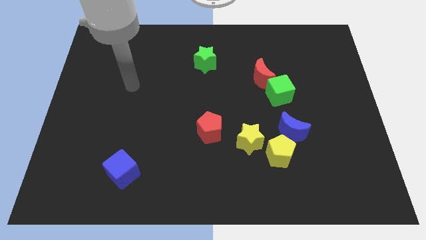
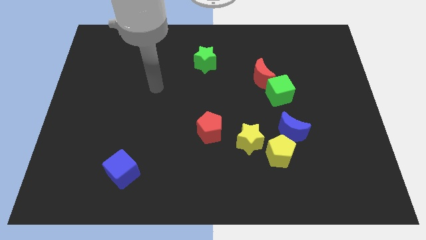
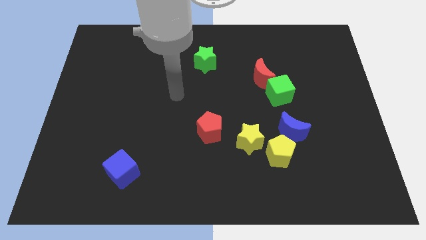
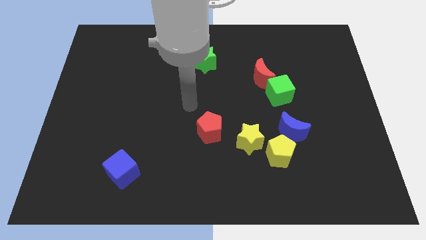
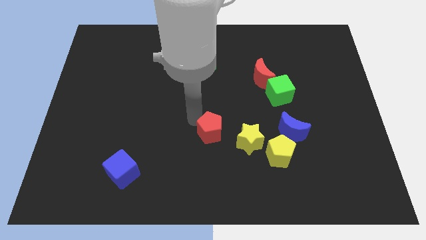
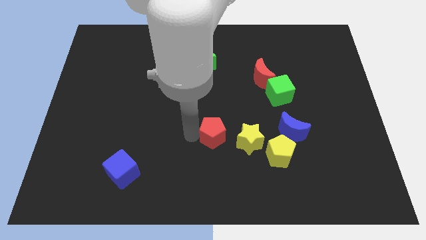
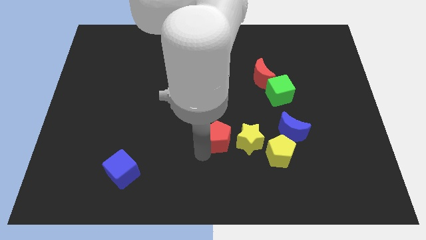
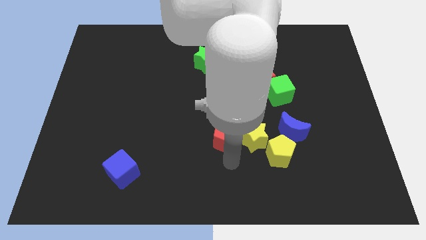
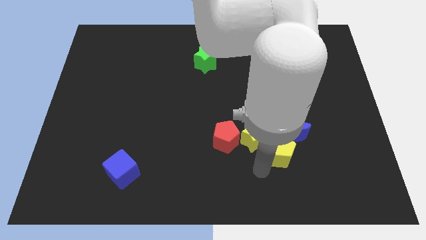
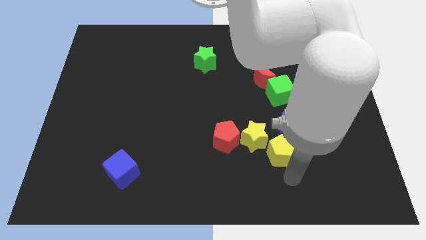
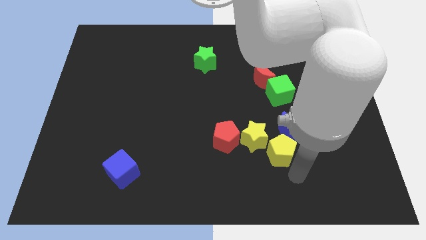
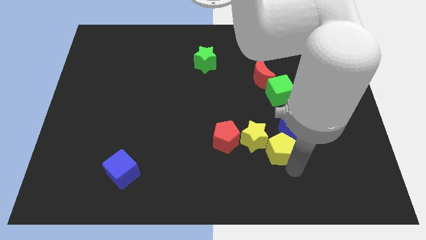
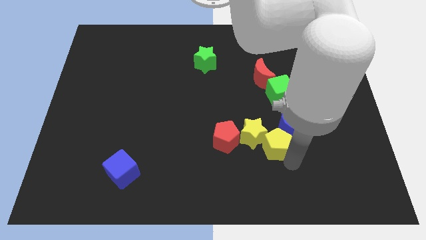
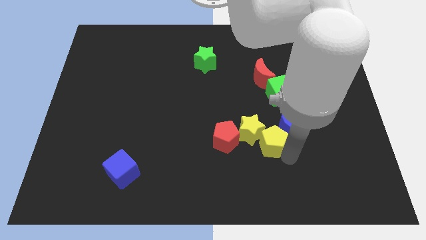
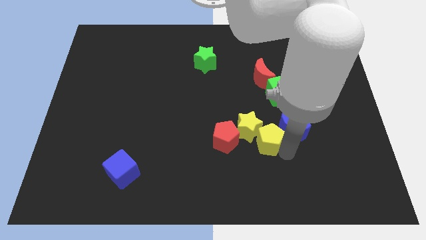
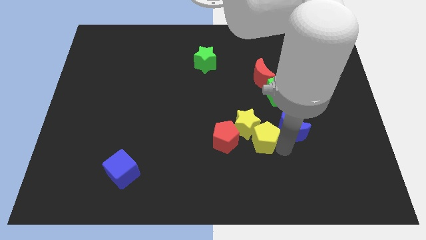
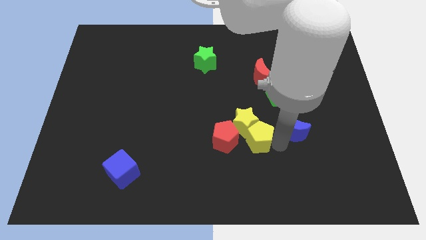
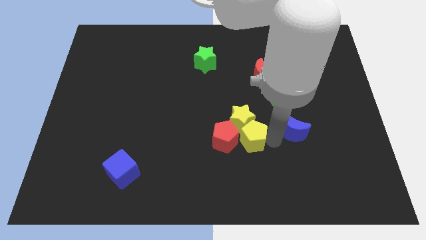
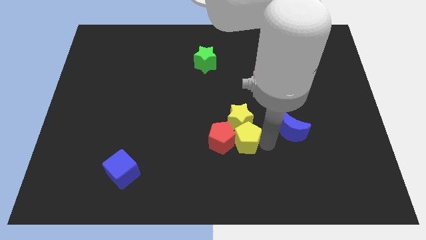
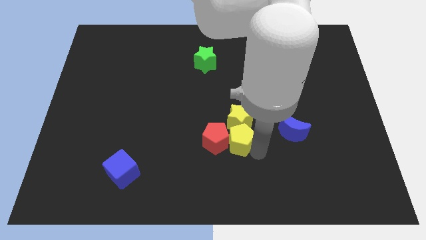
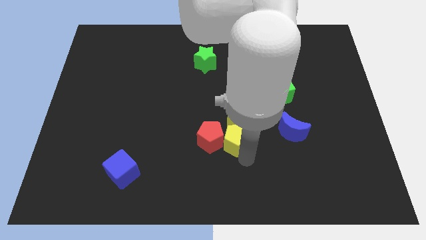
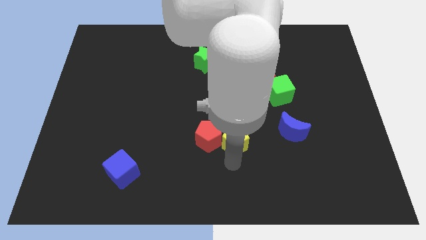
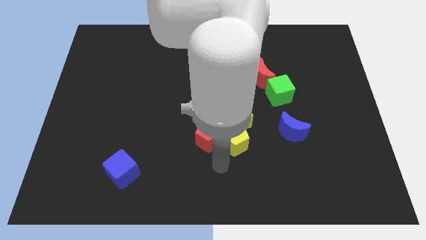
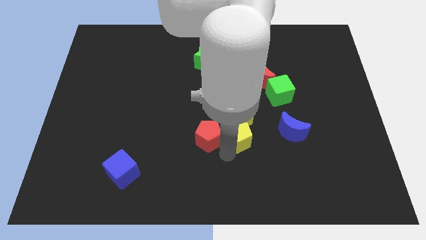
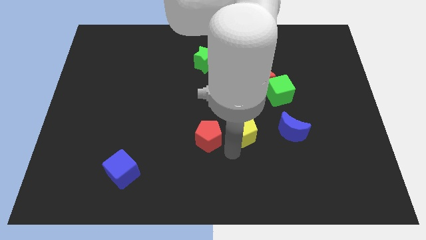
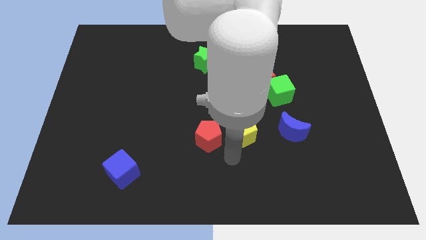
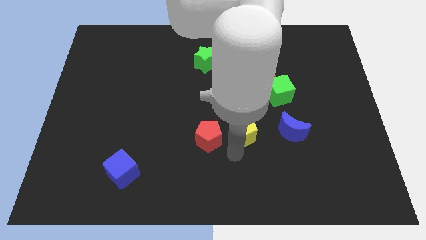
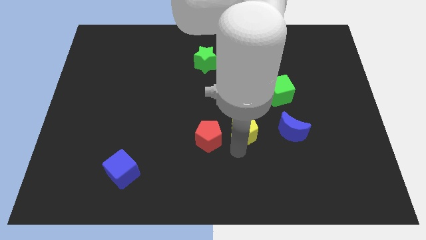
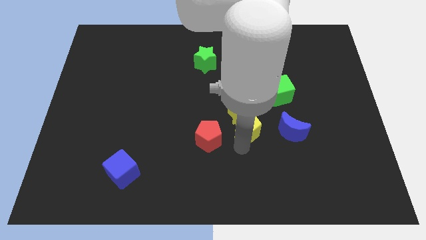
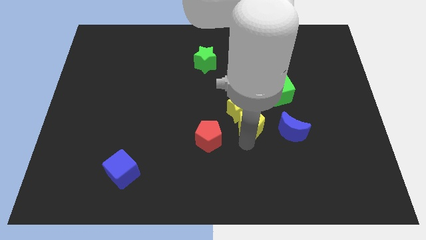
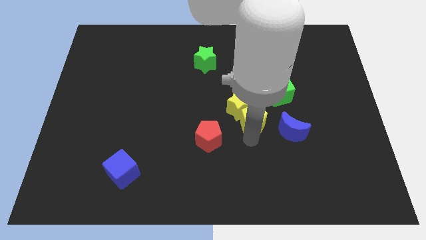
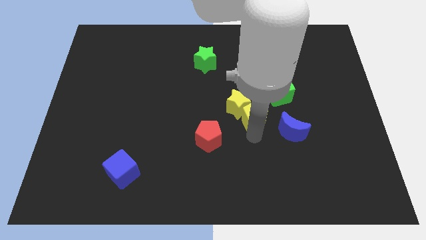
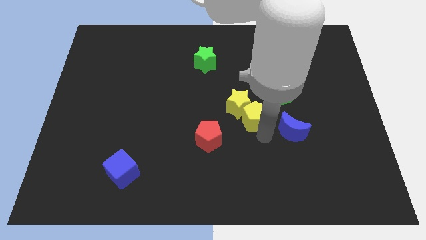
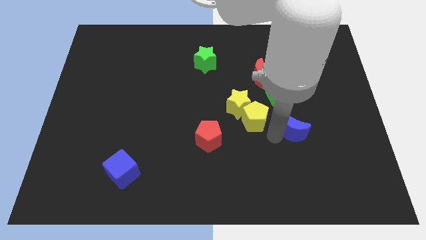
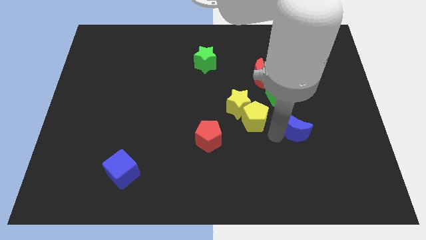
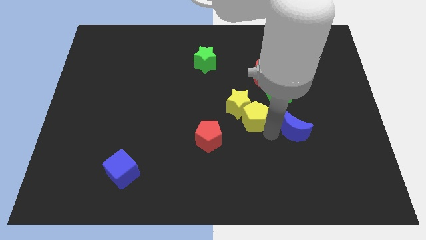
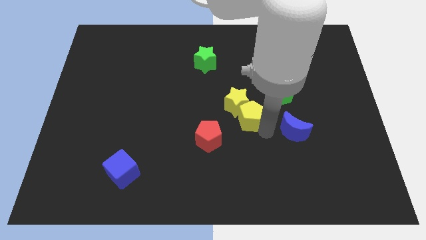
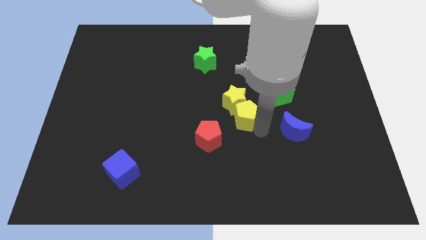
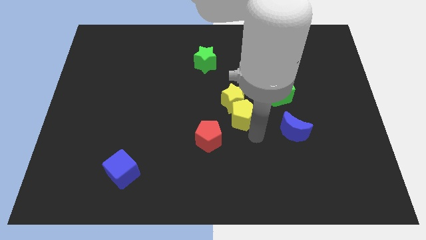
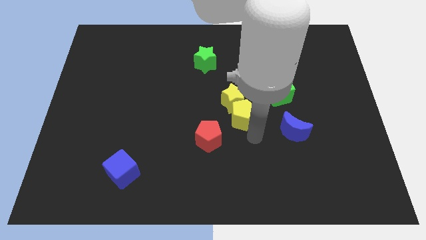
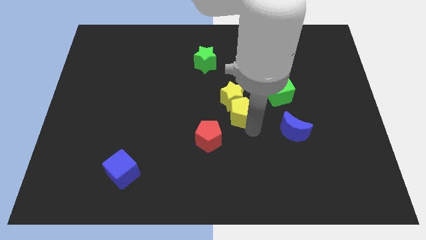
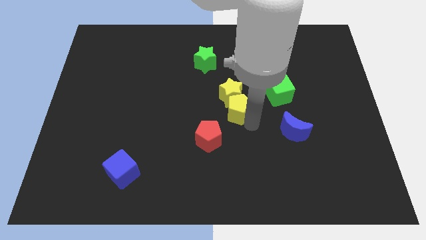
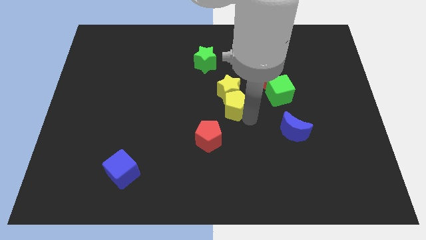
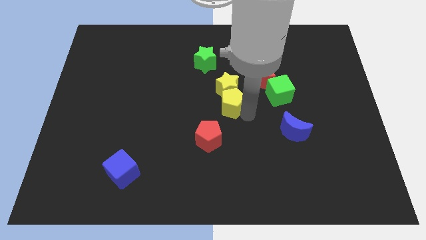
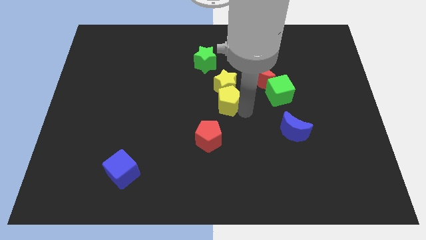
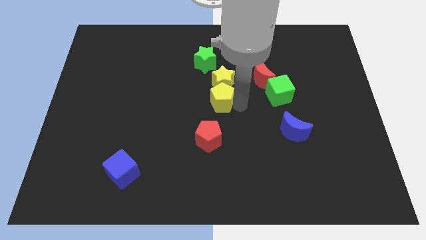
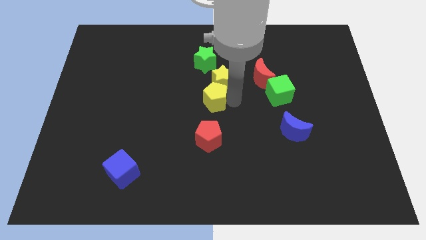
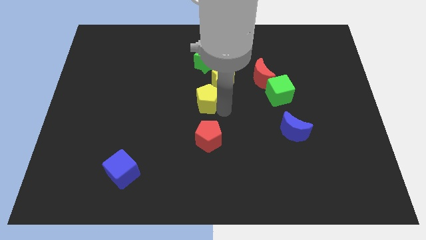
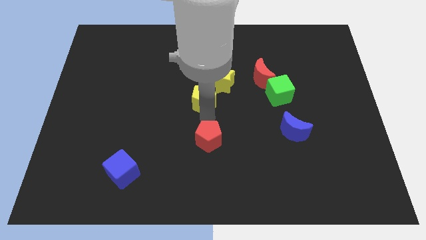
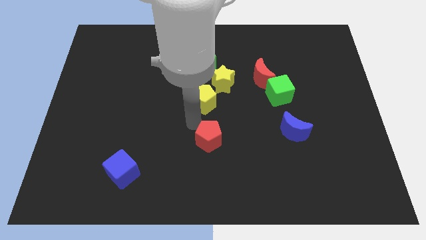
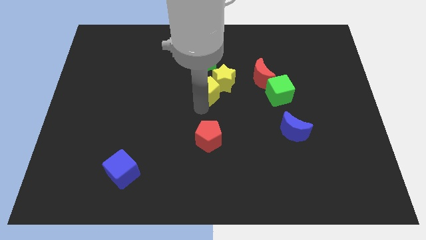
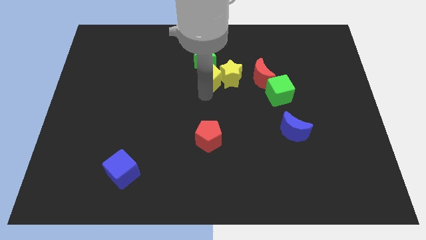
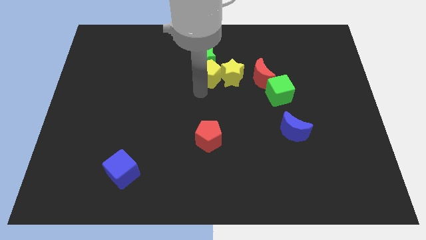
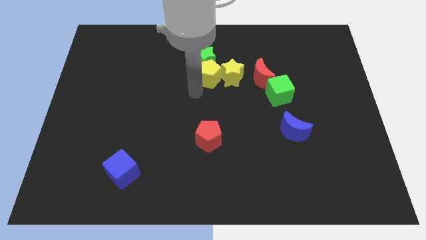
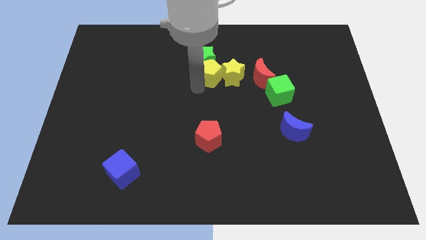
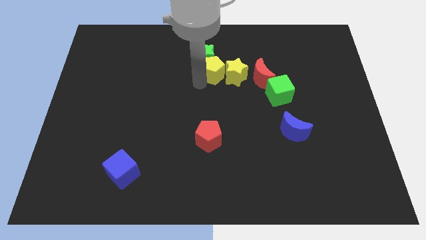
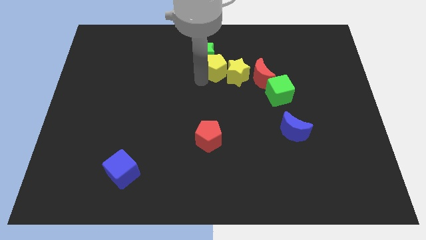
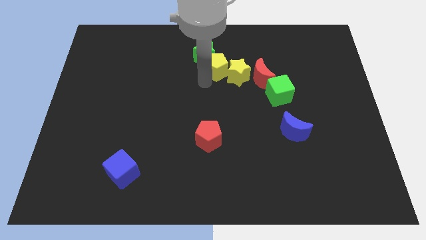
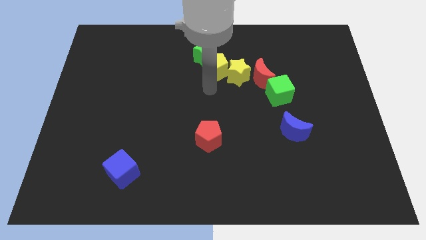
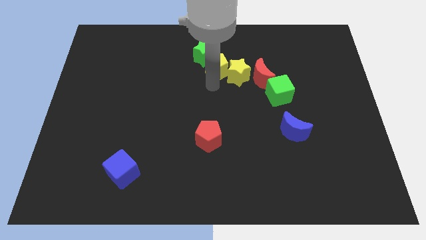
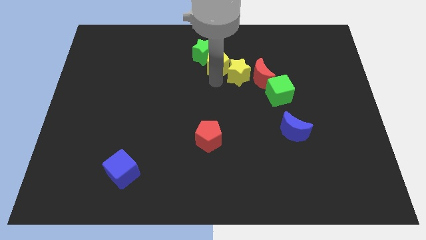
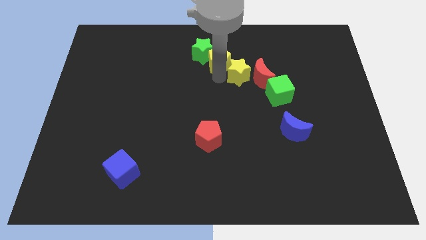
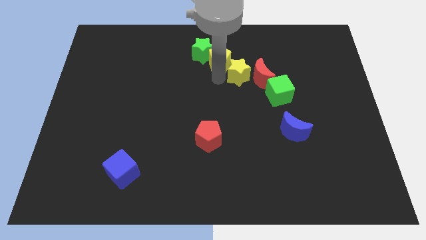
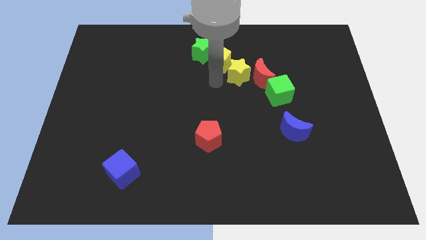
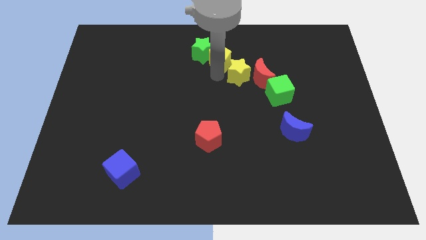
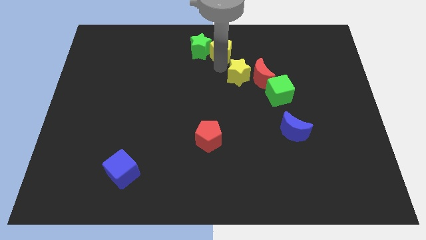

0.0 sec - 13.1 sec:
push the yellow pentagon to the top

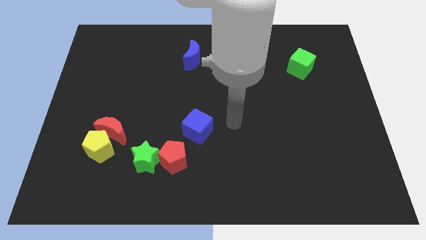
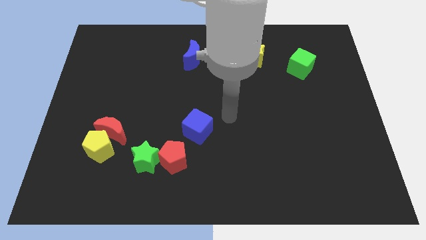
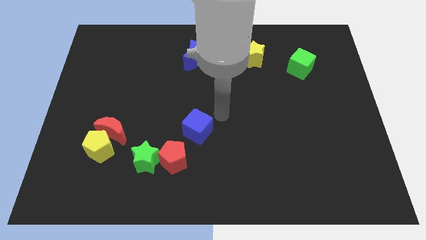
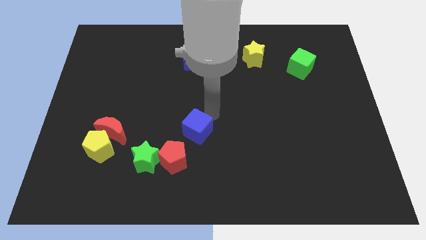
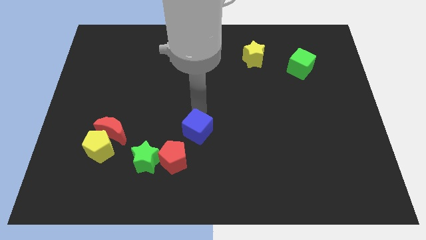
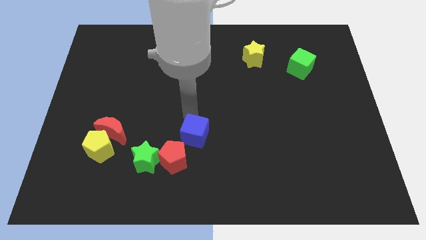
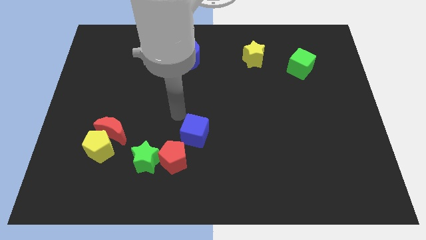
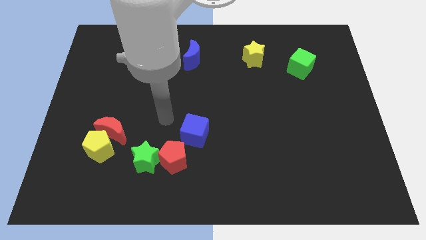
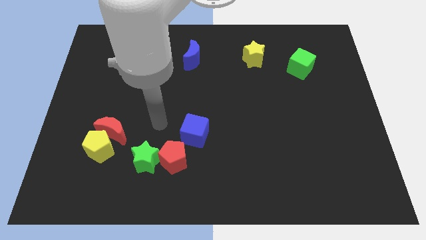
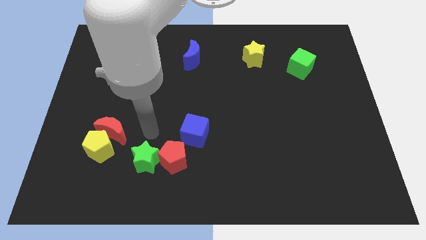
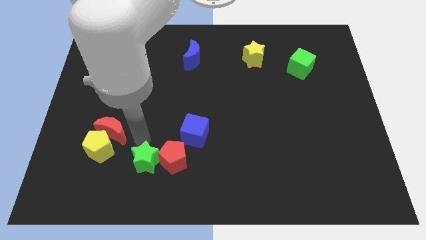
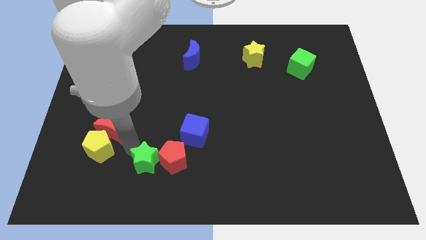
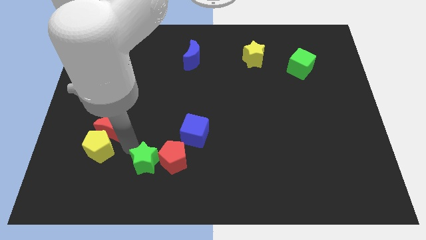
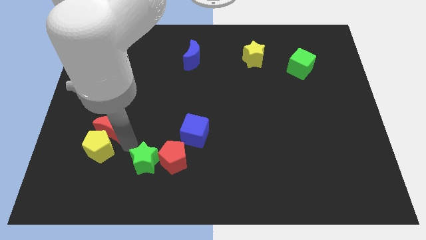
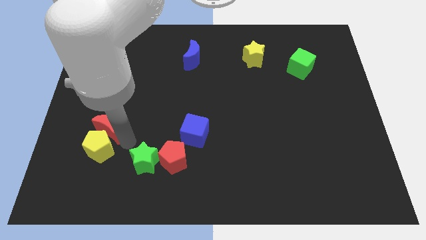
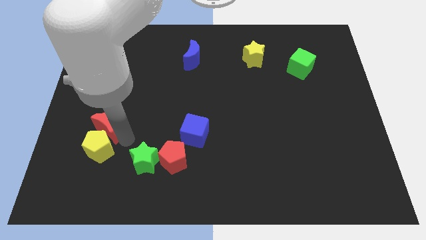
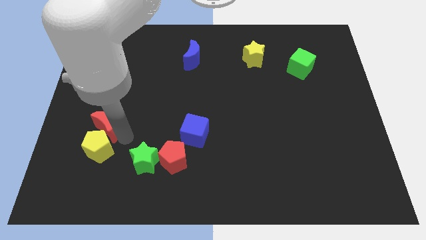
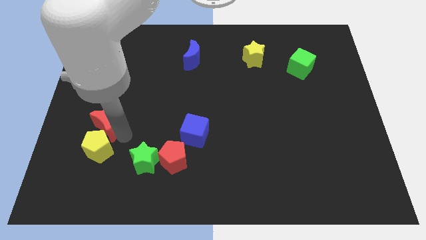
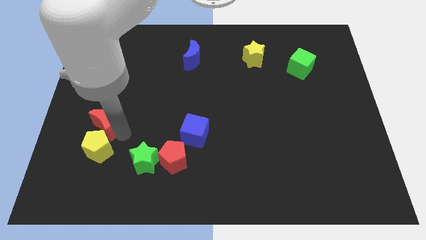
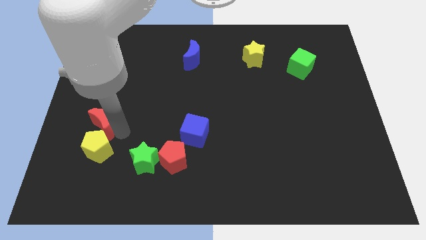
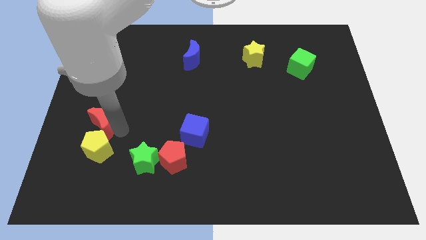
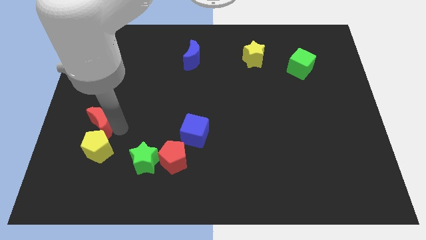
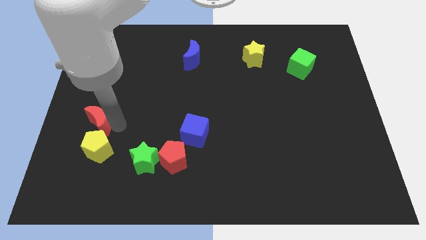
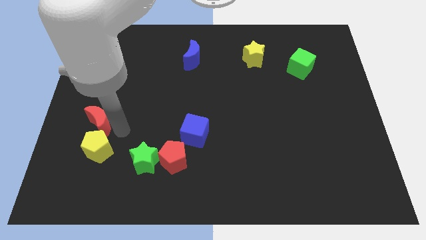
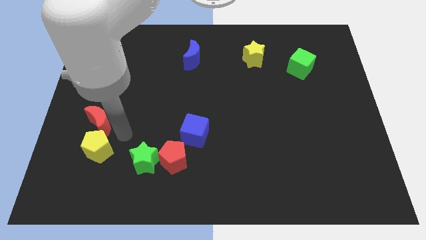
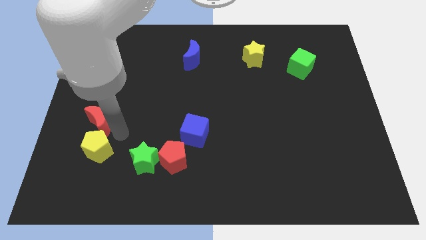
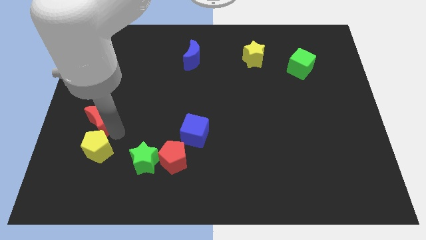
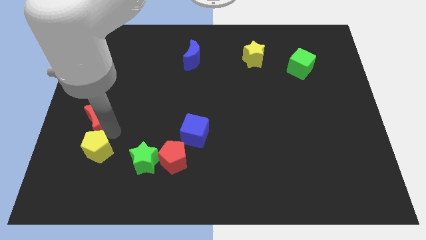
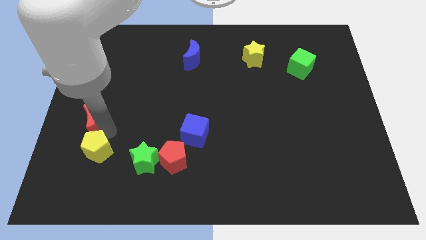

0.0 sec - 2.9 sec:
push the red moon to the left side of the board
